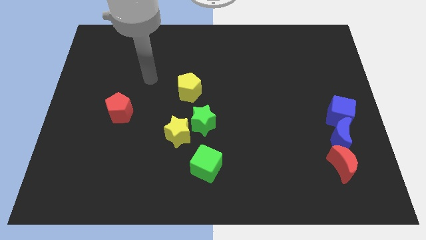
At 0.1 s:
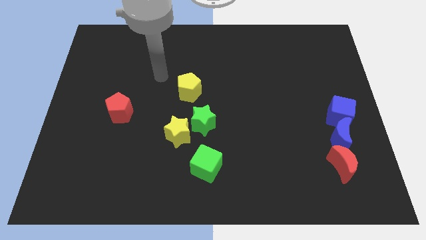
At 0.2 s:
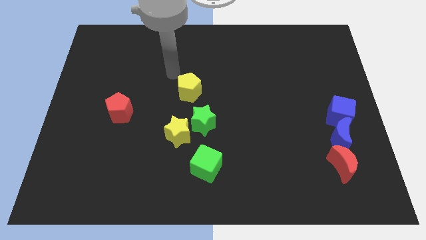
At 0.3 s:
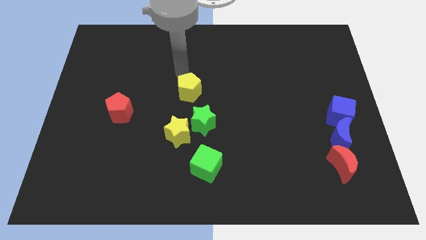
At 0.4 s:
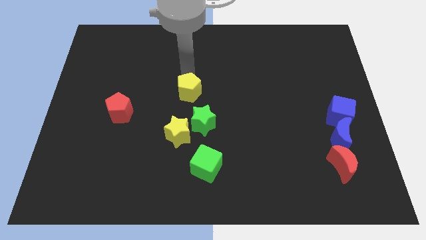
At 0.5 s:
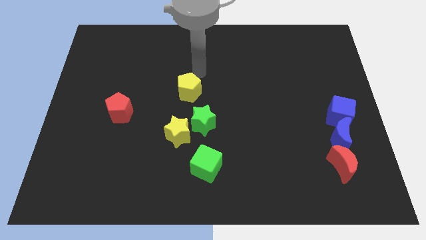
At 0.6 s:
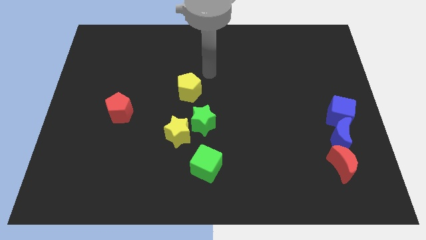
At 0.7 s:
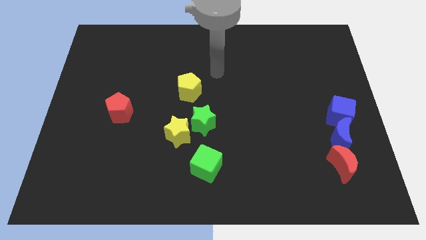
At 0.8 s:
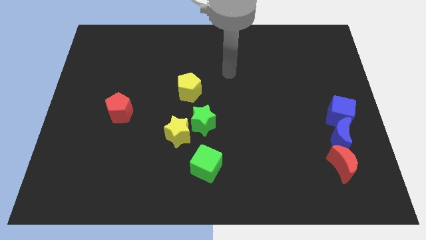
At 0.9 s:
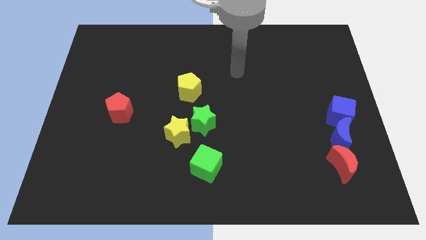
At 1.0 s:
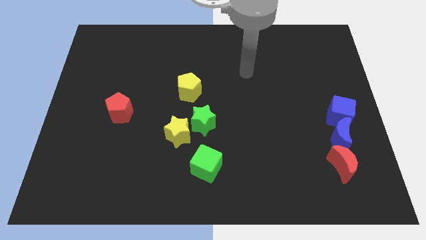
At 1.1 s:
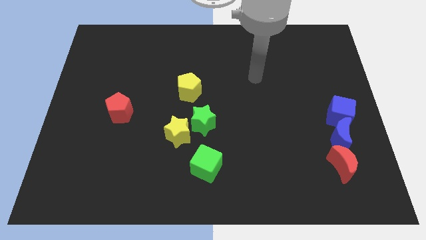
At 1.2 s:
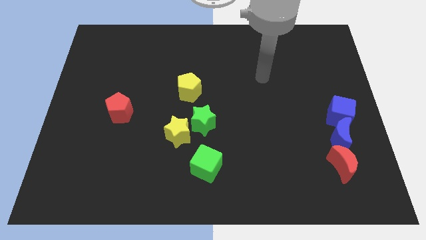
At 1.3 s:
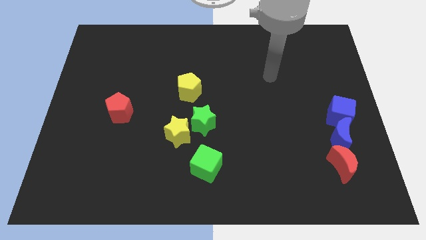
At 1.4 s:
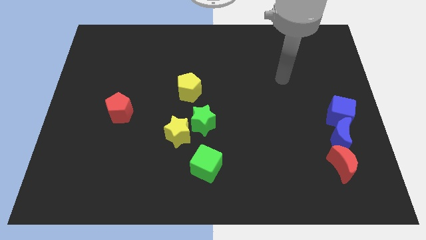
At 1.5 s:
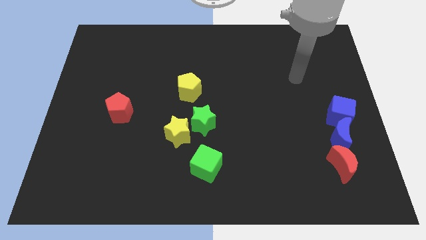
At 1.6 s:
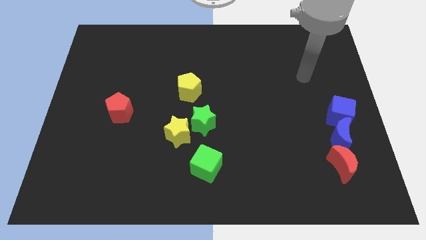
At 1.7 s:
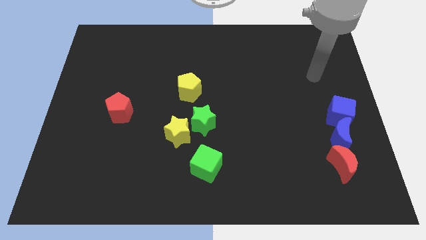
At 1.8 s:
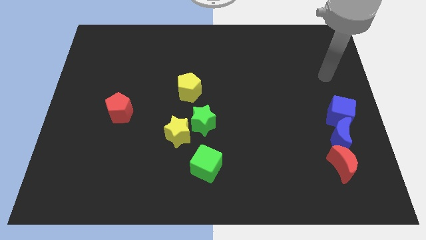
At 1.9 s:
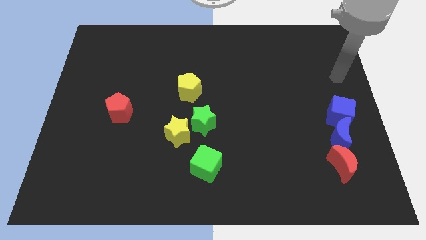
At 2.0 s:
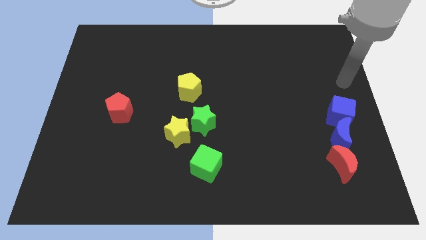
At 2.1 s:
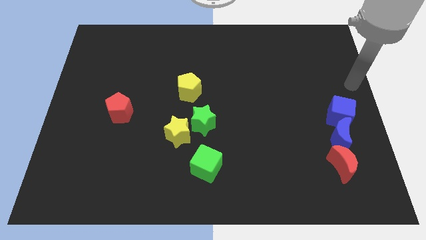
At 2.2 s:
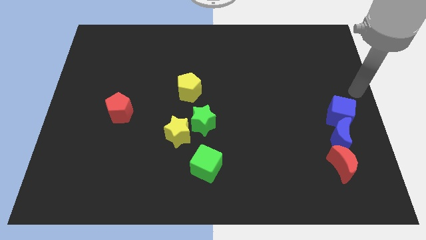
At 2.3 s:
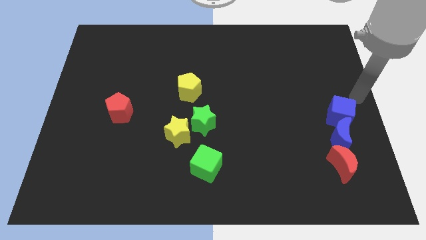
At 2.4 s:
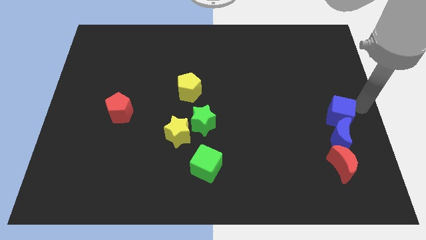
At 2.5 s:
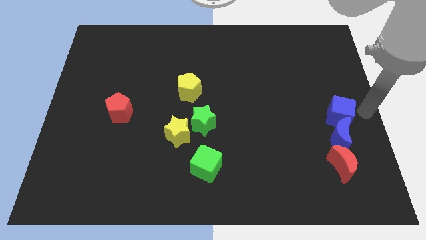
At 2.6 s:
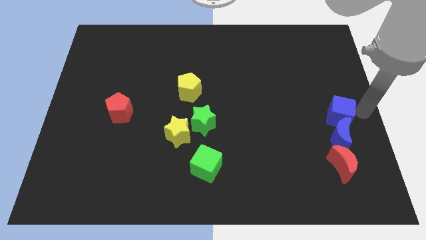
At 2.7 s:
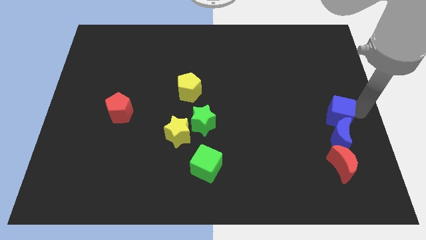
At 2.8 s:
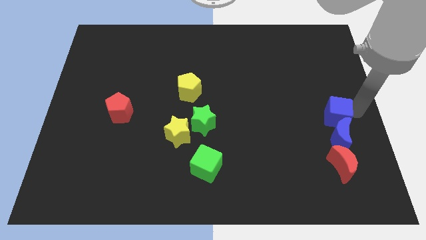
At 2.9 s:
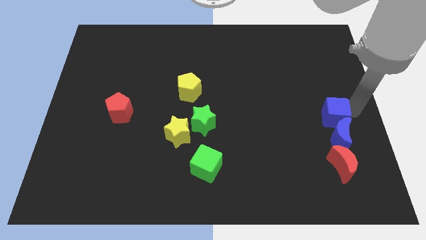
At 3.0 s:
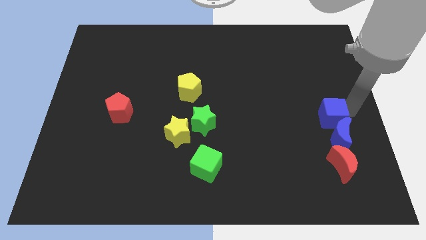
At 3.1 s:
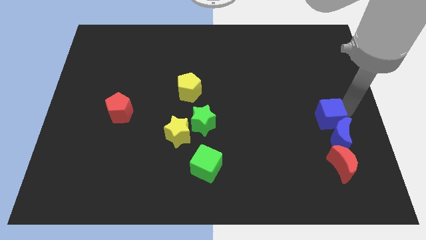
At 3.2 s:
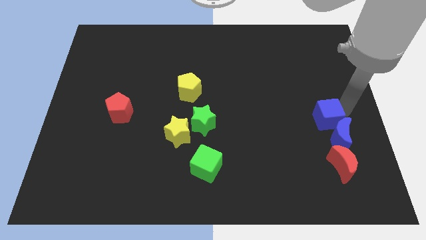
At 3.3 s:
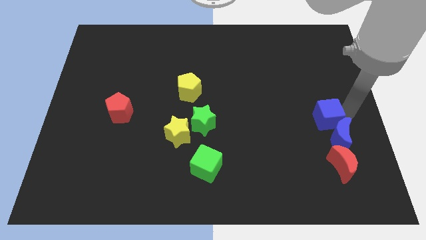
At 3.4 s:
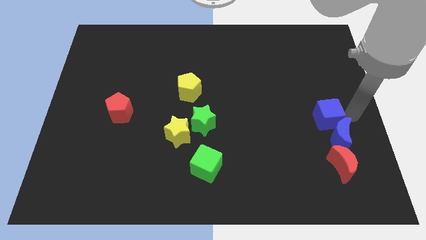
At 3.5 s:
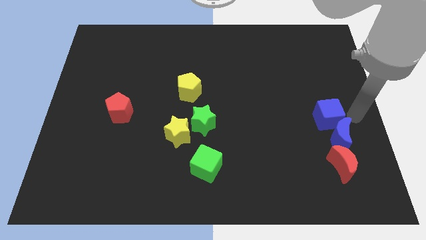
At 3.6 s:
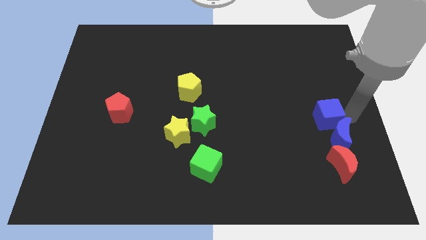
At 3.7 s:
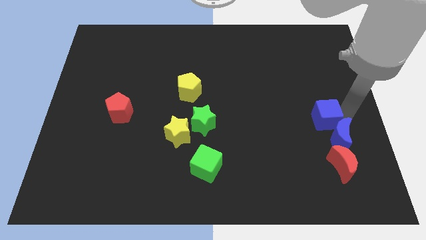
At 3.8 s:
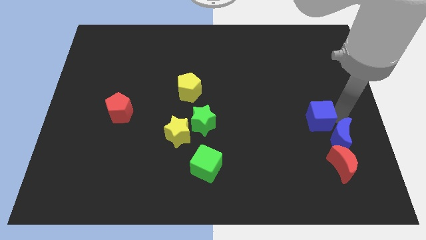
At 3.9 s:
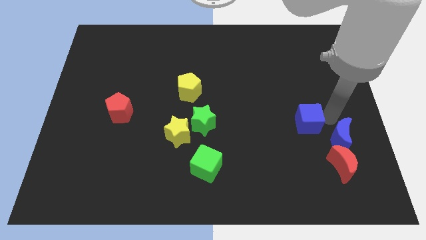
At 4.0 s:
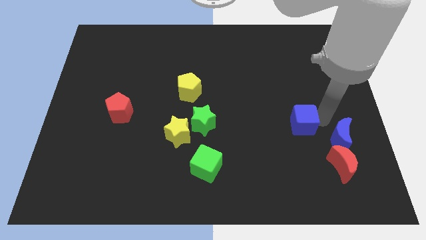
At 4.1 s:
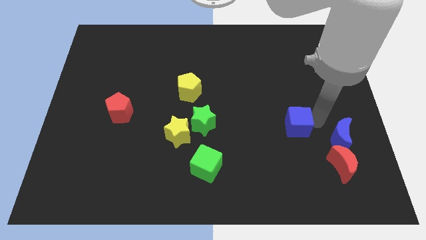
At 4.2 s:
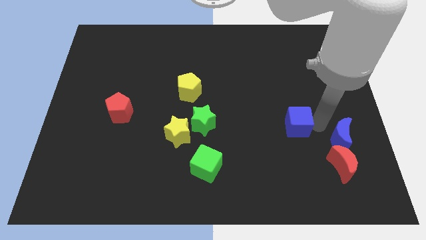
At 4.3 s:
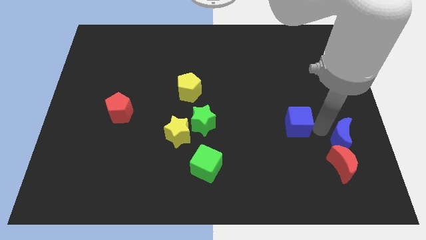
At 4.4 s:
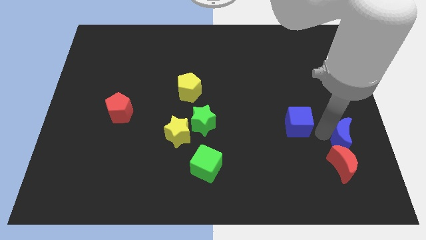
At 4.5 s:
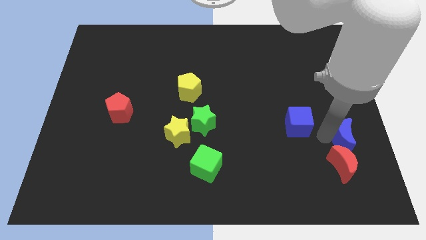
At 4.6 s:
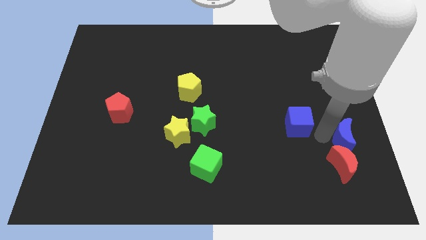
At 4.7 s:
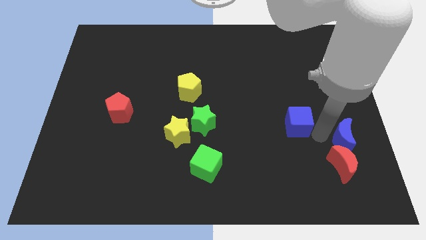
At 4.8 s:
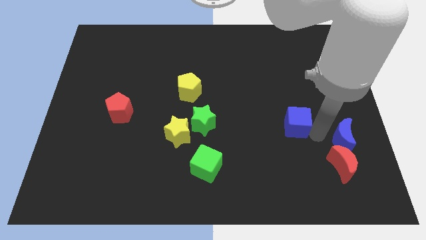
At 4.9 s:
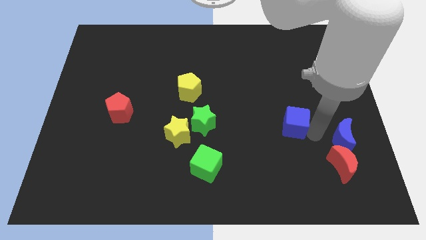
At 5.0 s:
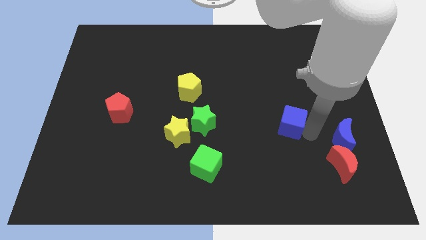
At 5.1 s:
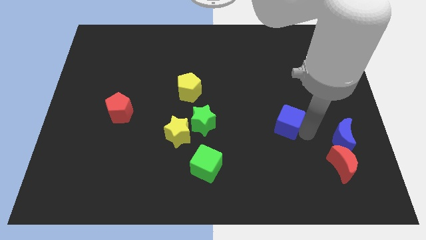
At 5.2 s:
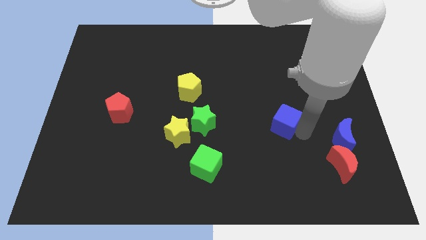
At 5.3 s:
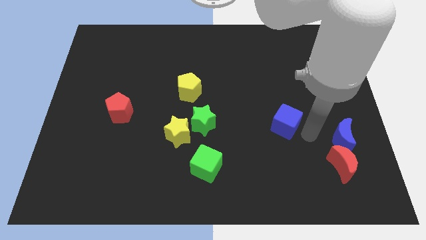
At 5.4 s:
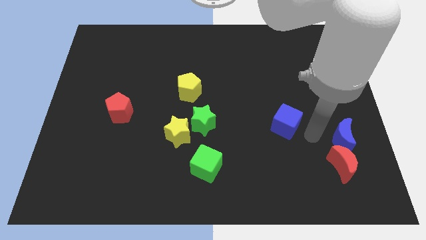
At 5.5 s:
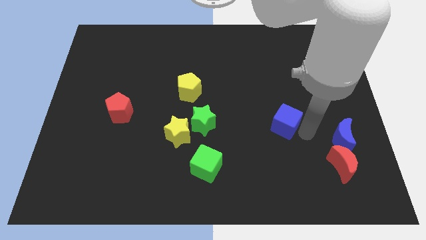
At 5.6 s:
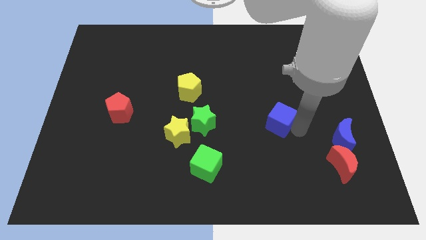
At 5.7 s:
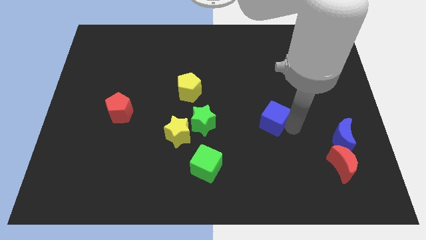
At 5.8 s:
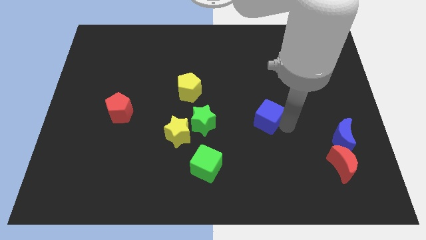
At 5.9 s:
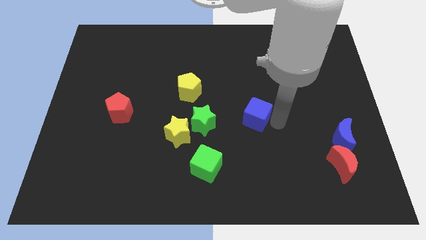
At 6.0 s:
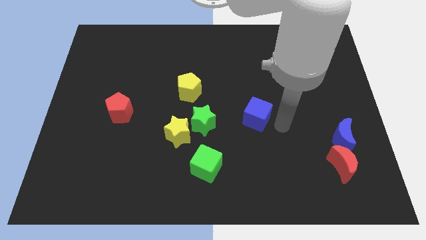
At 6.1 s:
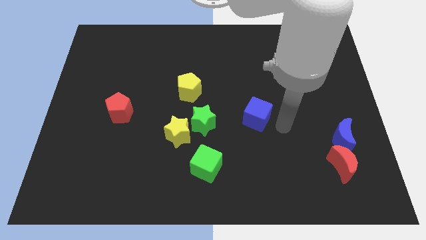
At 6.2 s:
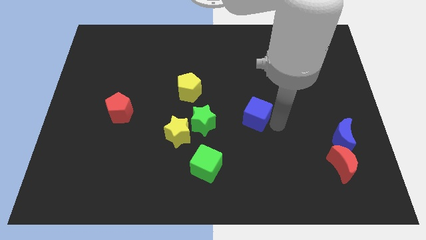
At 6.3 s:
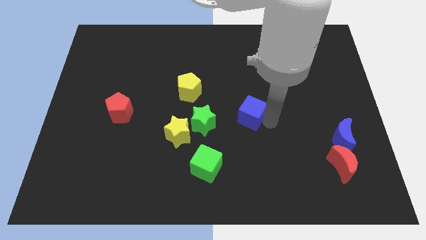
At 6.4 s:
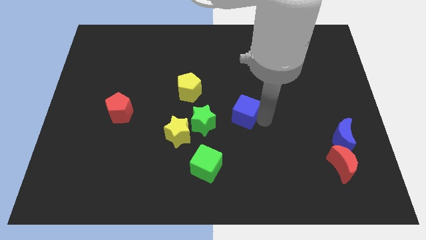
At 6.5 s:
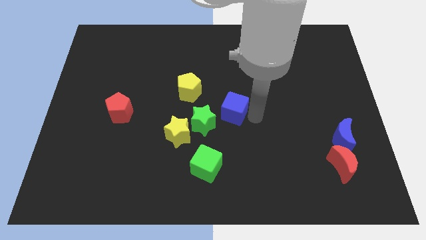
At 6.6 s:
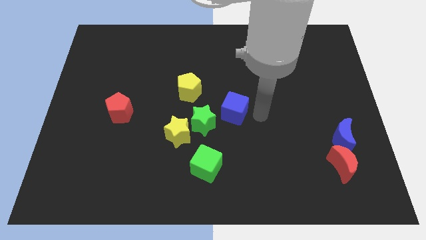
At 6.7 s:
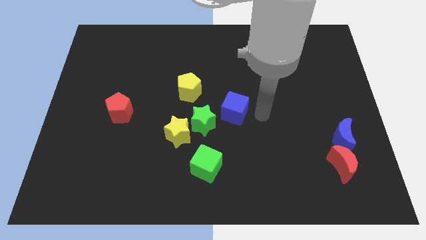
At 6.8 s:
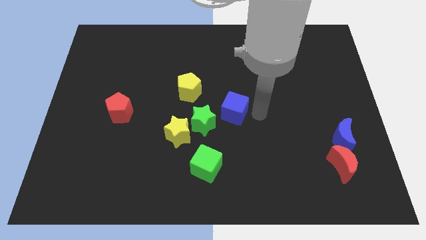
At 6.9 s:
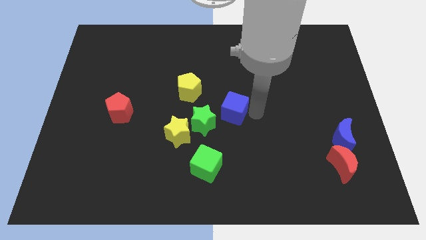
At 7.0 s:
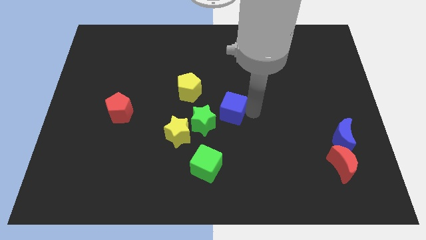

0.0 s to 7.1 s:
put the blue cube to the bottom right of the yellow pentagon
